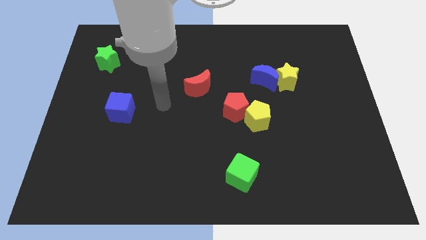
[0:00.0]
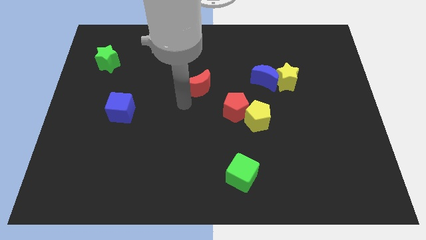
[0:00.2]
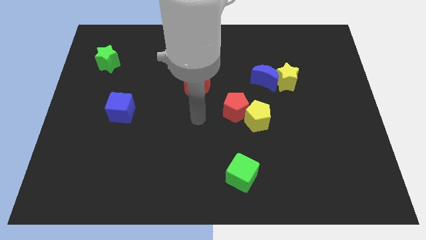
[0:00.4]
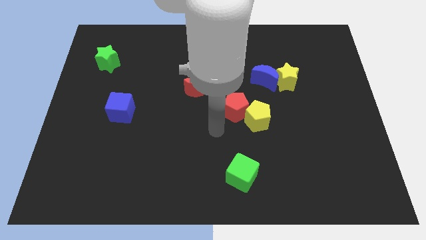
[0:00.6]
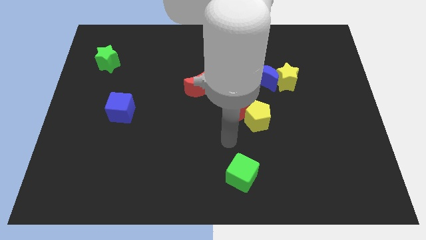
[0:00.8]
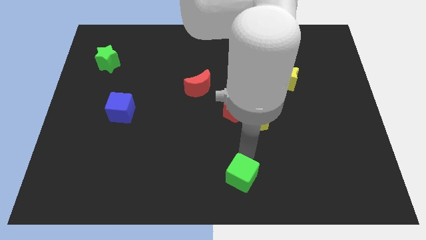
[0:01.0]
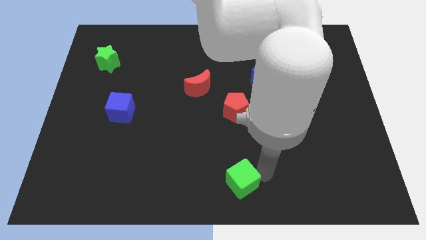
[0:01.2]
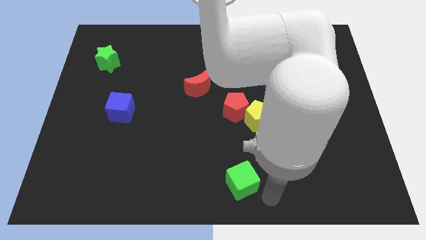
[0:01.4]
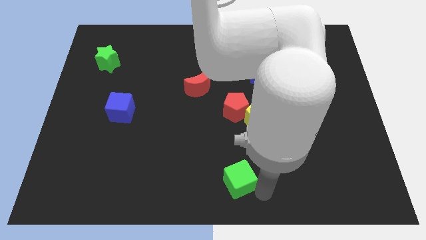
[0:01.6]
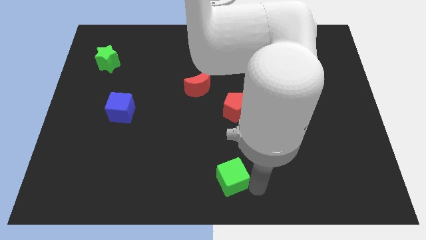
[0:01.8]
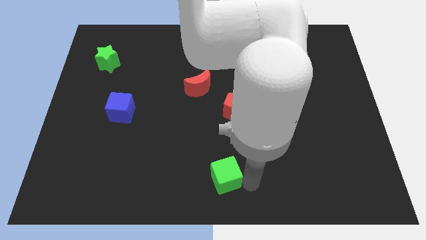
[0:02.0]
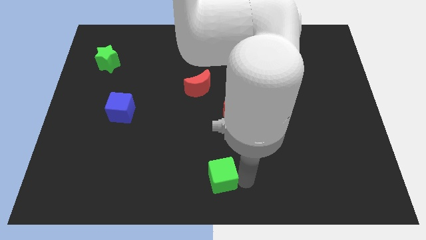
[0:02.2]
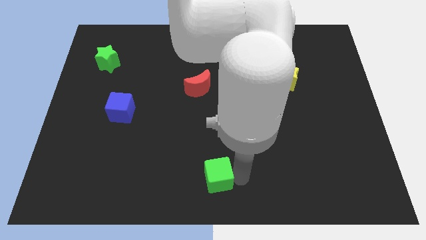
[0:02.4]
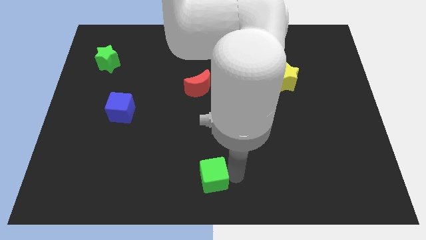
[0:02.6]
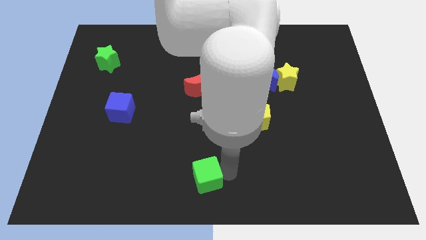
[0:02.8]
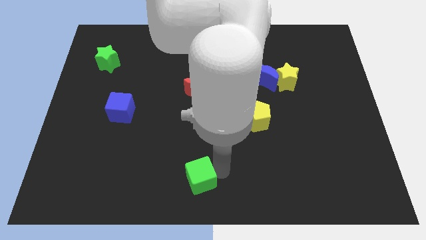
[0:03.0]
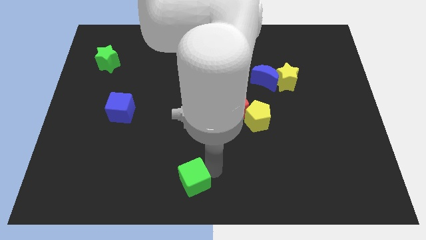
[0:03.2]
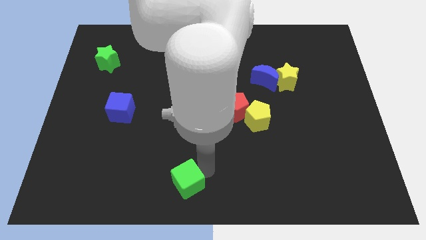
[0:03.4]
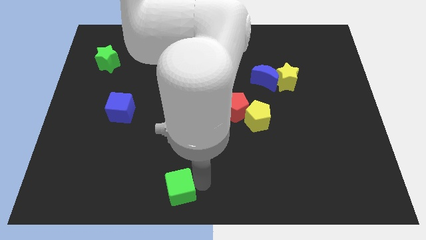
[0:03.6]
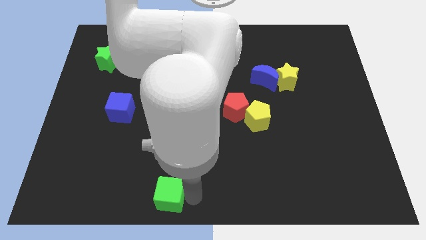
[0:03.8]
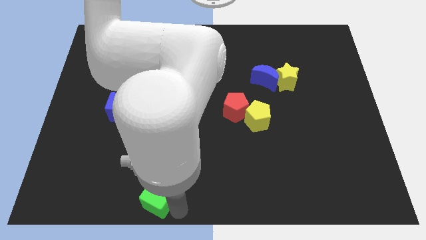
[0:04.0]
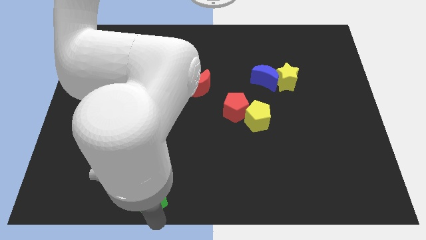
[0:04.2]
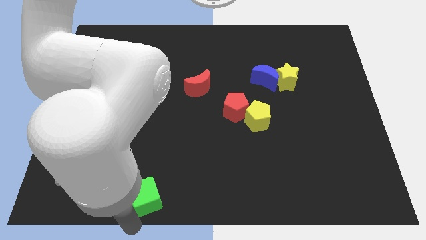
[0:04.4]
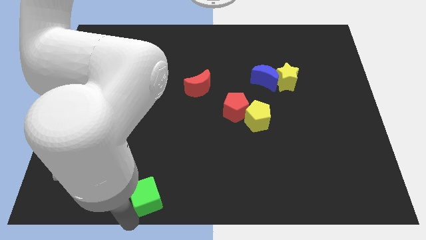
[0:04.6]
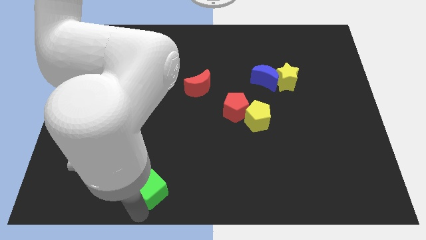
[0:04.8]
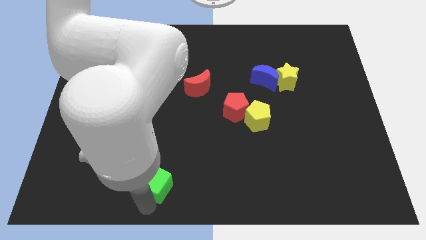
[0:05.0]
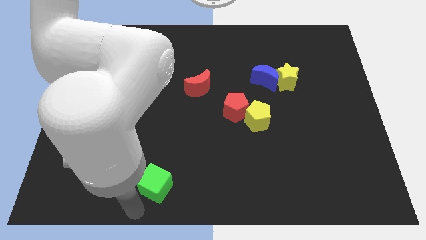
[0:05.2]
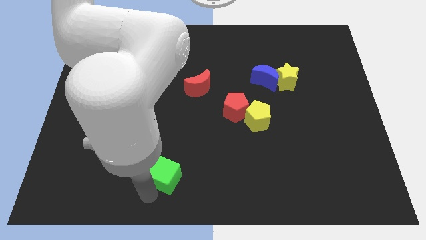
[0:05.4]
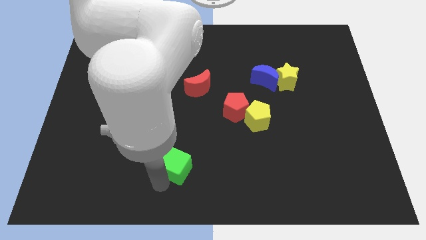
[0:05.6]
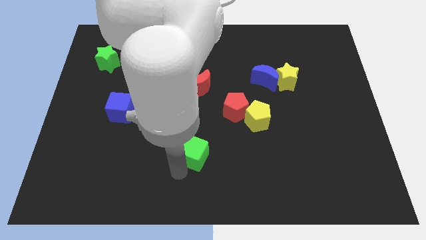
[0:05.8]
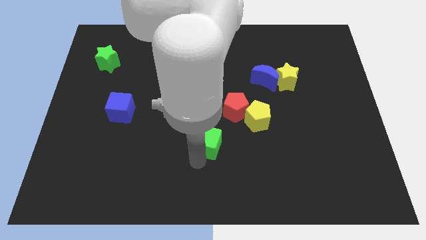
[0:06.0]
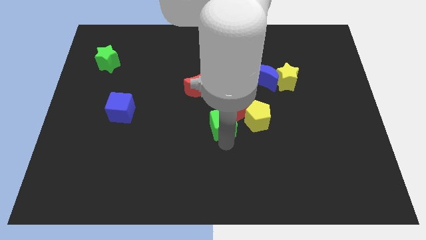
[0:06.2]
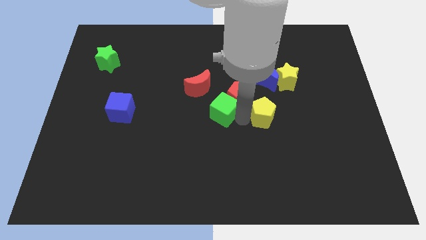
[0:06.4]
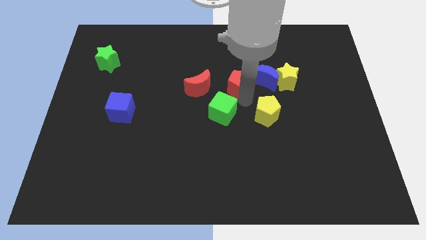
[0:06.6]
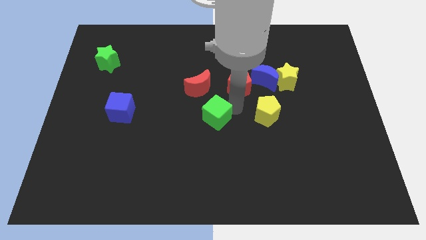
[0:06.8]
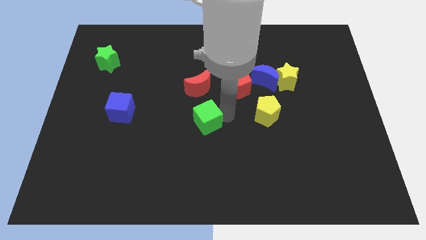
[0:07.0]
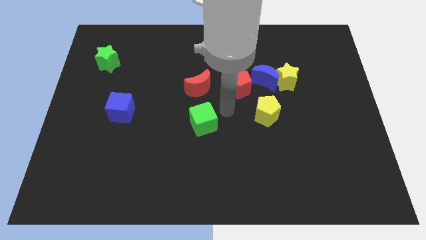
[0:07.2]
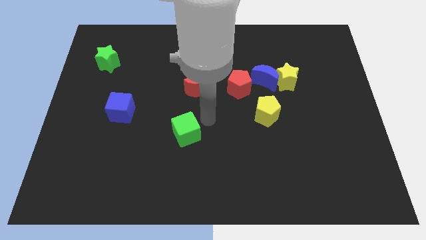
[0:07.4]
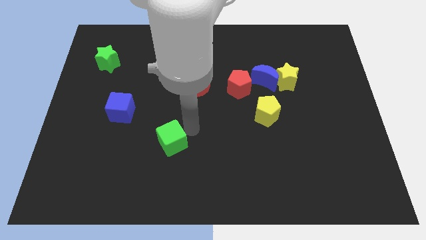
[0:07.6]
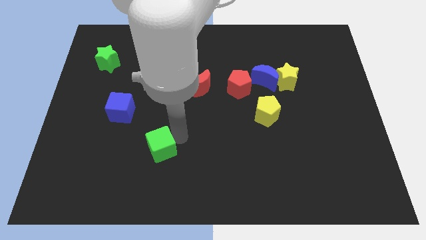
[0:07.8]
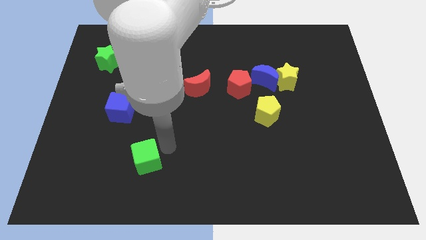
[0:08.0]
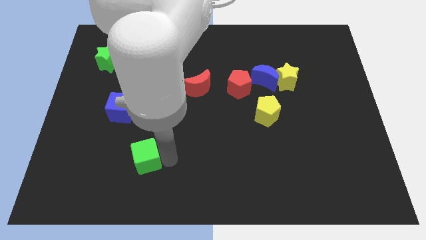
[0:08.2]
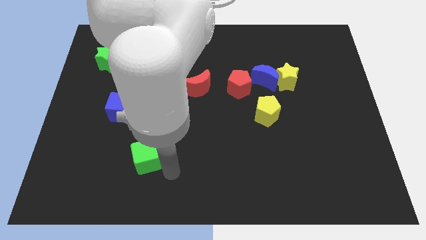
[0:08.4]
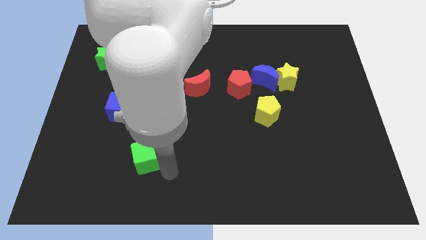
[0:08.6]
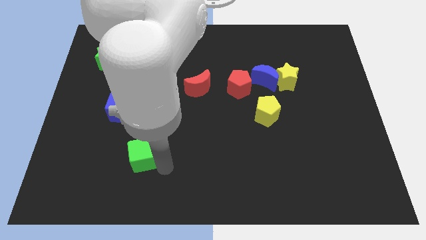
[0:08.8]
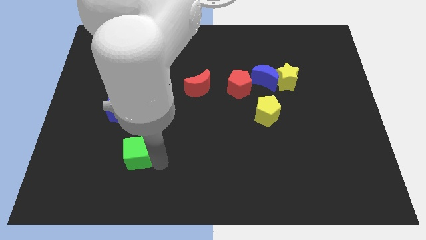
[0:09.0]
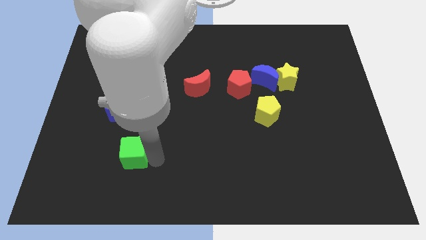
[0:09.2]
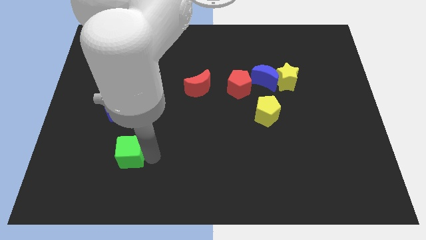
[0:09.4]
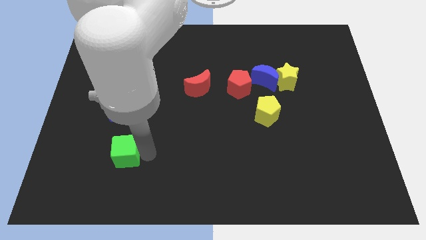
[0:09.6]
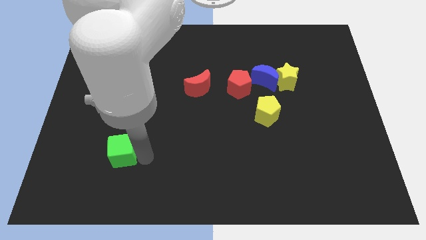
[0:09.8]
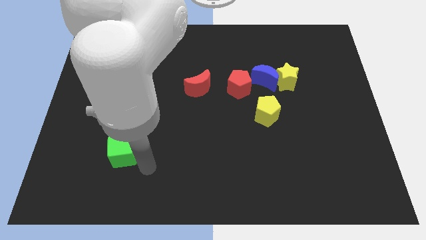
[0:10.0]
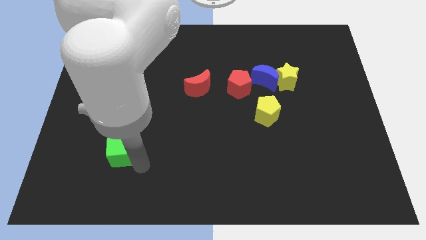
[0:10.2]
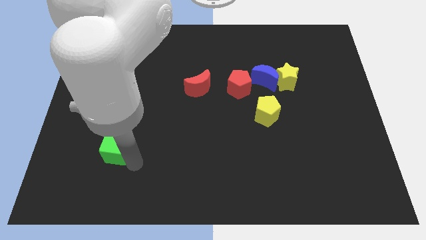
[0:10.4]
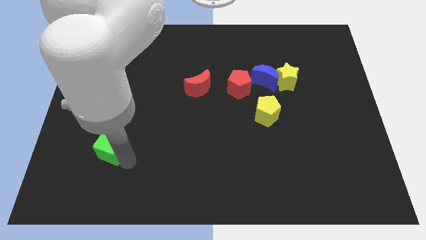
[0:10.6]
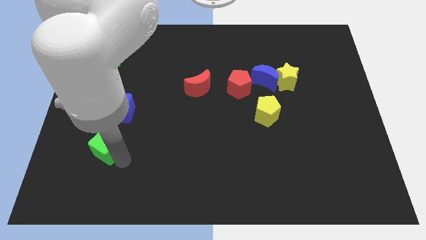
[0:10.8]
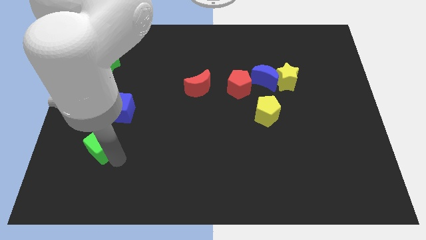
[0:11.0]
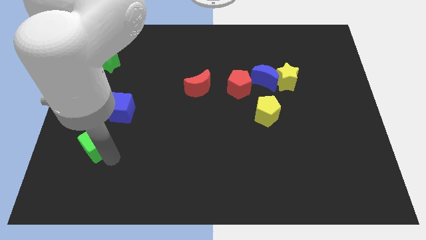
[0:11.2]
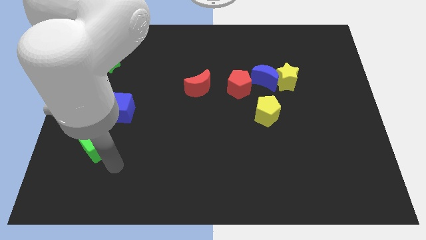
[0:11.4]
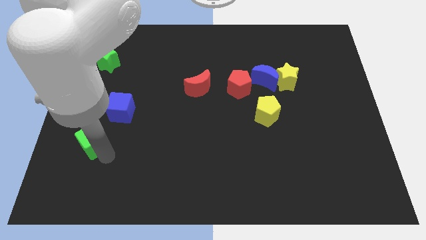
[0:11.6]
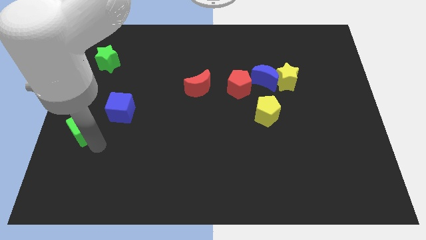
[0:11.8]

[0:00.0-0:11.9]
put the green cube to the center left

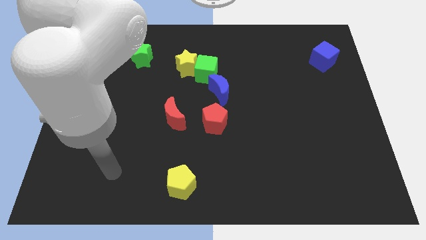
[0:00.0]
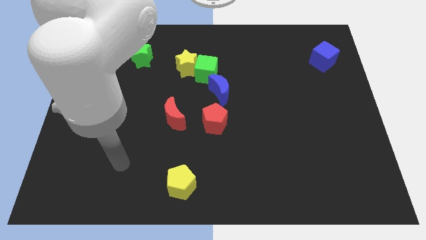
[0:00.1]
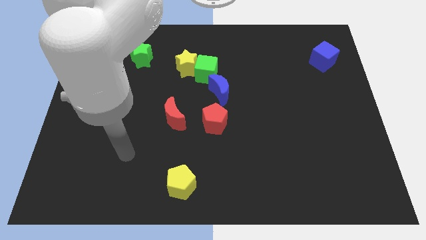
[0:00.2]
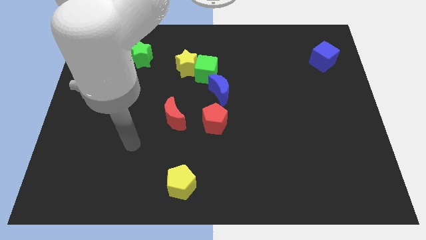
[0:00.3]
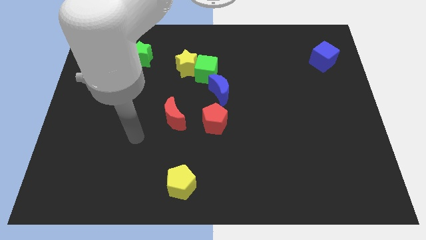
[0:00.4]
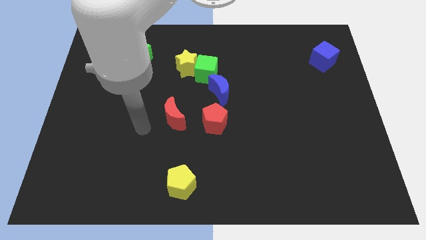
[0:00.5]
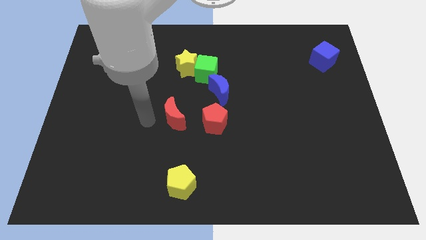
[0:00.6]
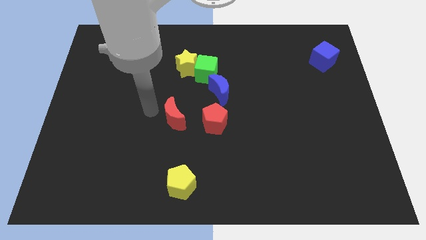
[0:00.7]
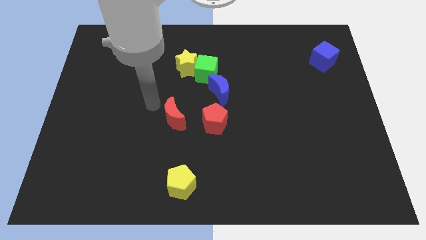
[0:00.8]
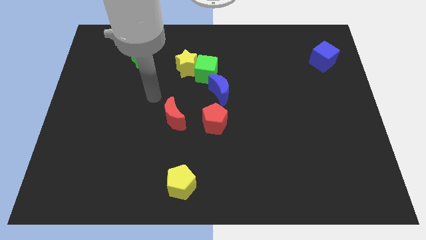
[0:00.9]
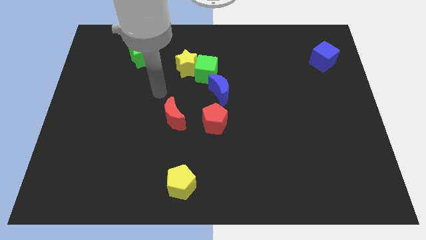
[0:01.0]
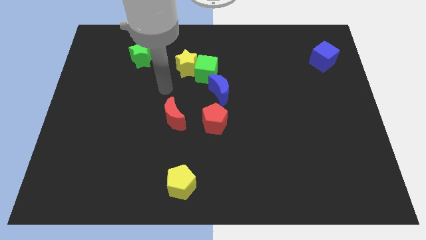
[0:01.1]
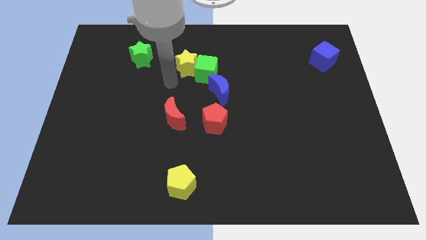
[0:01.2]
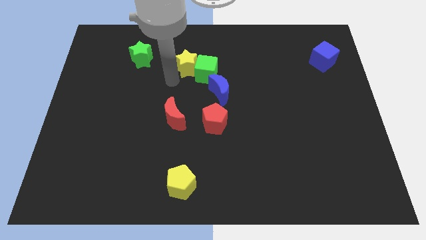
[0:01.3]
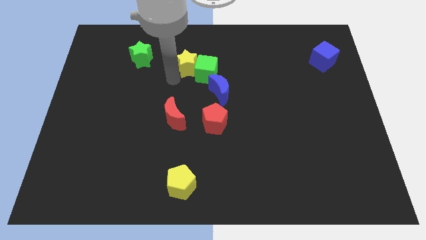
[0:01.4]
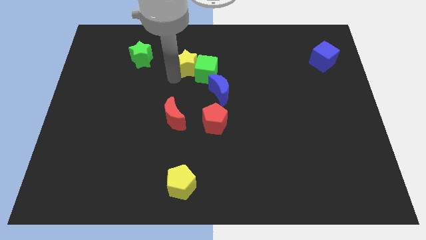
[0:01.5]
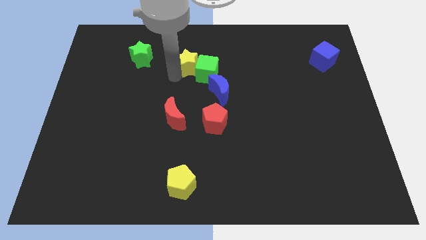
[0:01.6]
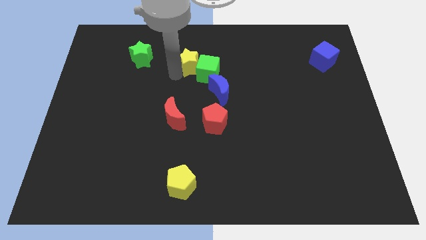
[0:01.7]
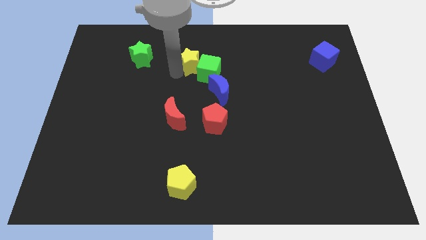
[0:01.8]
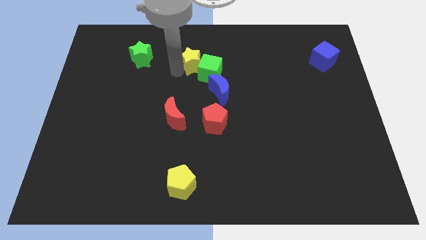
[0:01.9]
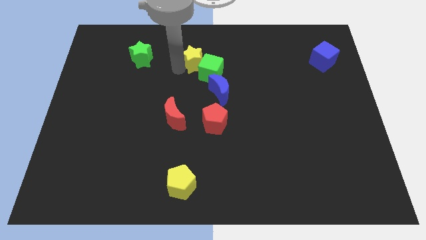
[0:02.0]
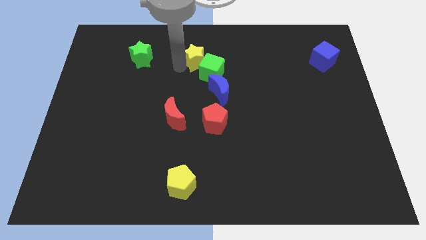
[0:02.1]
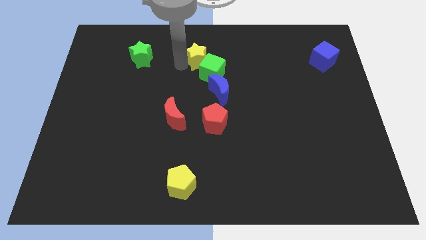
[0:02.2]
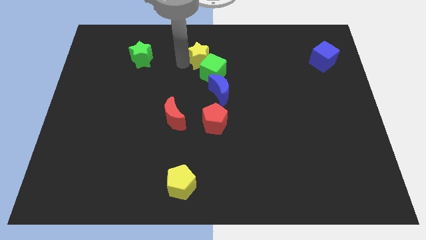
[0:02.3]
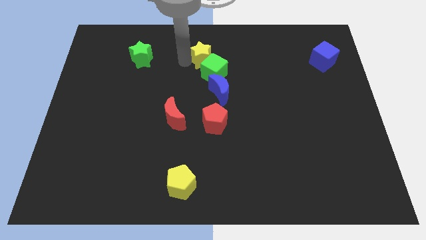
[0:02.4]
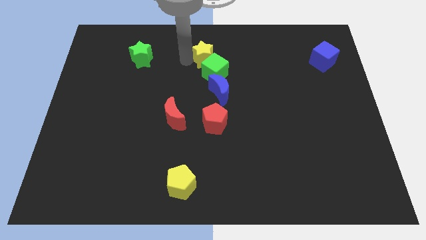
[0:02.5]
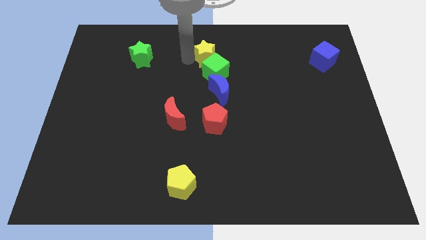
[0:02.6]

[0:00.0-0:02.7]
slide the yellow star to the top
